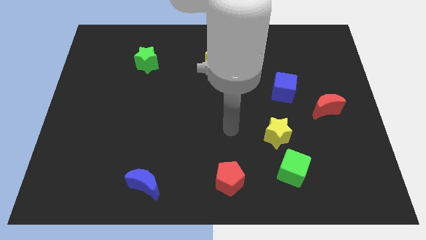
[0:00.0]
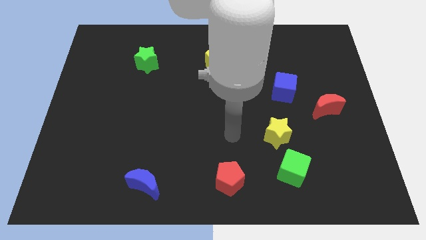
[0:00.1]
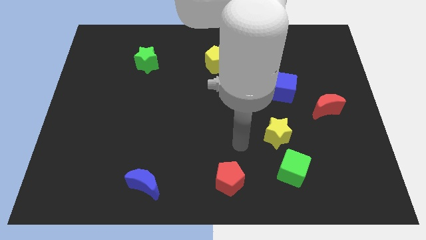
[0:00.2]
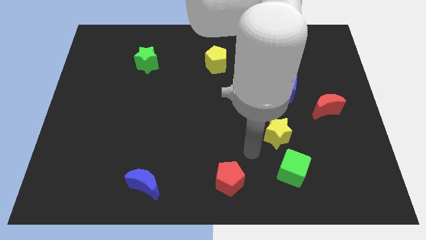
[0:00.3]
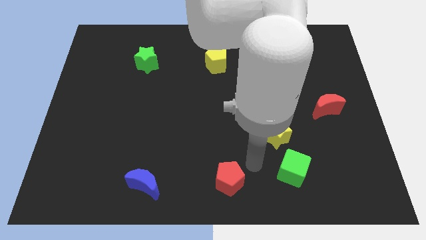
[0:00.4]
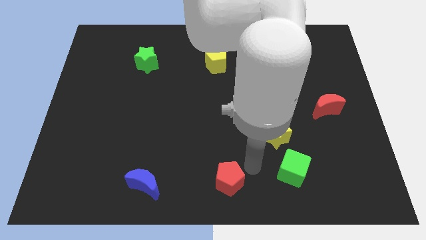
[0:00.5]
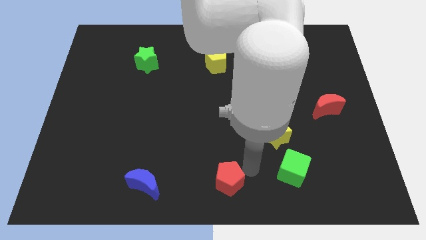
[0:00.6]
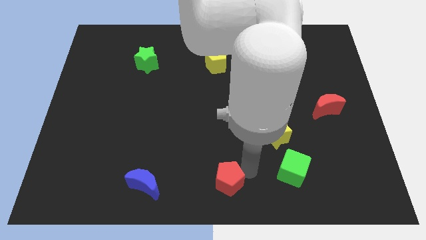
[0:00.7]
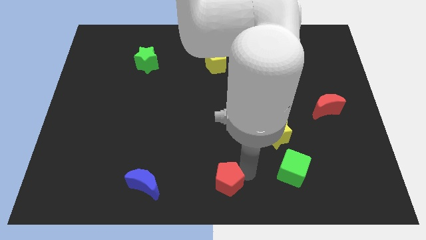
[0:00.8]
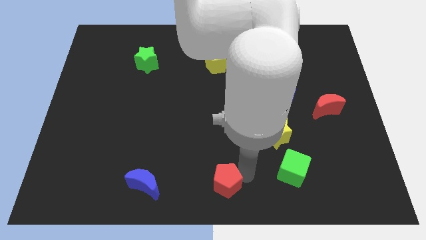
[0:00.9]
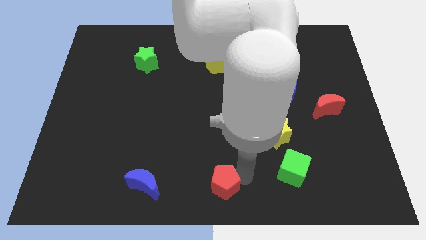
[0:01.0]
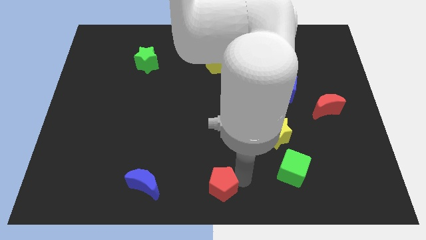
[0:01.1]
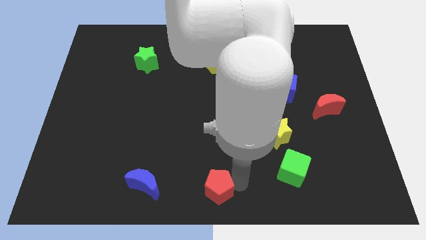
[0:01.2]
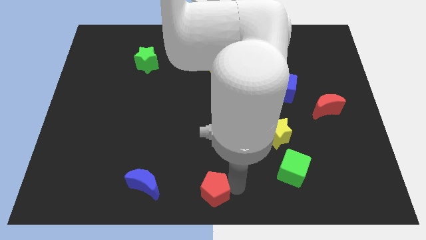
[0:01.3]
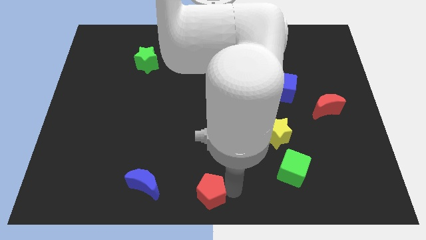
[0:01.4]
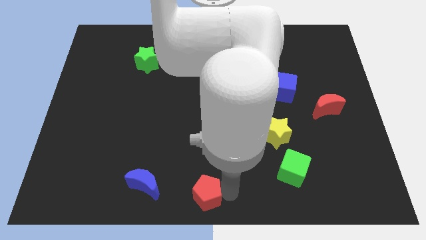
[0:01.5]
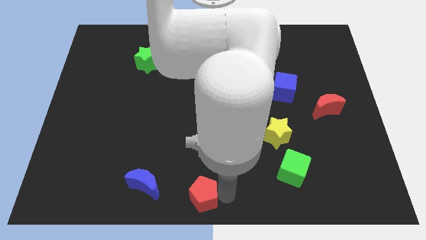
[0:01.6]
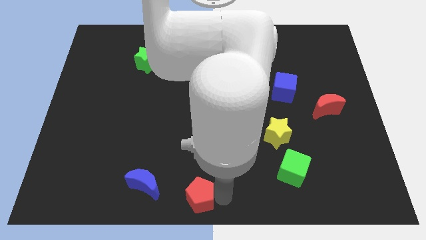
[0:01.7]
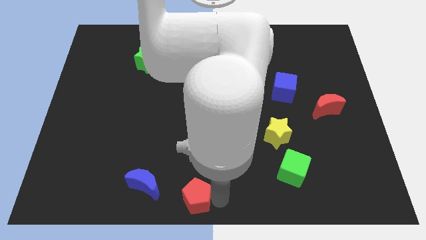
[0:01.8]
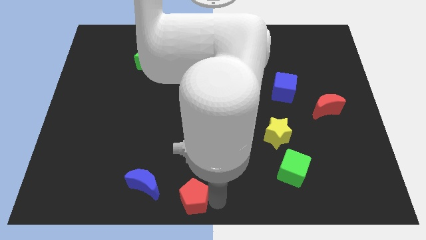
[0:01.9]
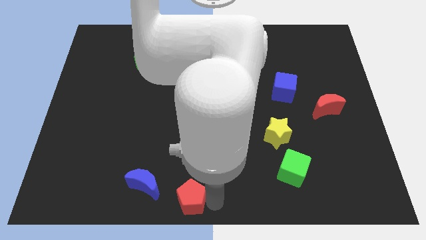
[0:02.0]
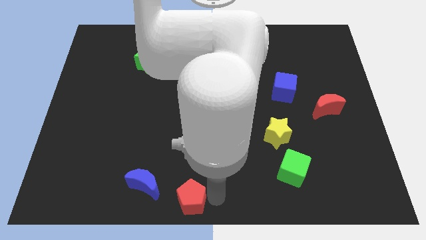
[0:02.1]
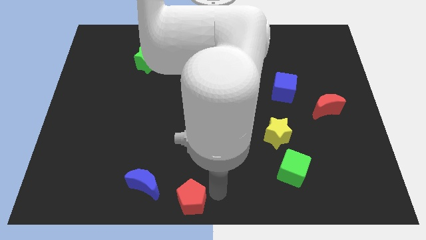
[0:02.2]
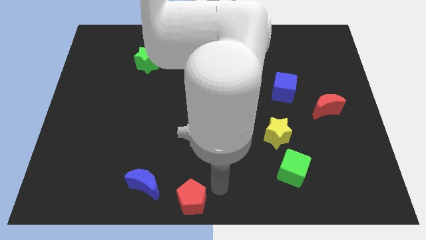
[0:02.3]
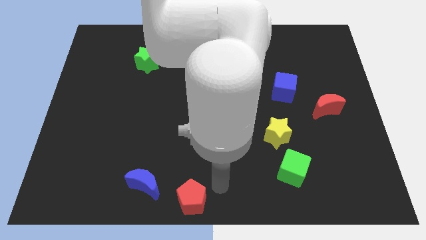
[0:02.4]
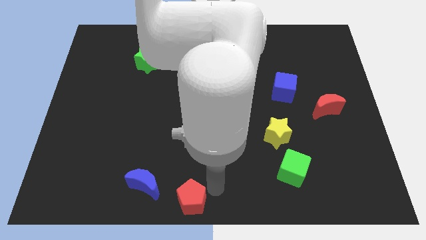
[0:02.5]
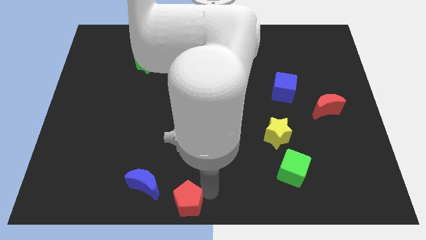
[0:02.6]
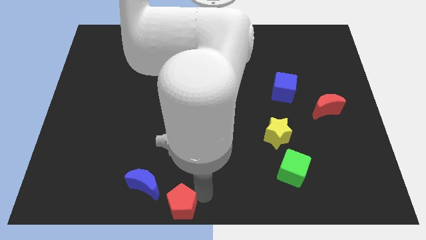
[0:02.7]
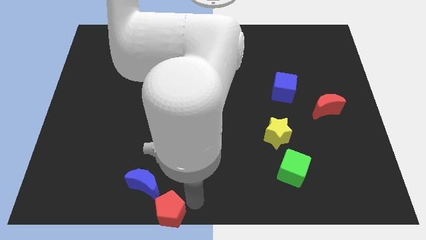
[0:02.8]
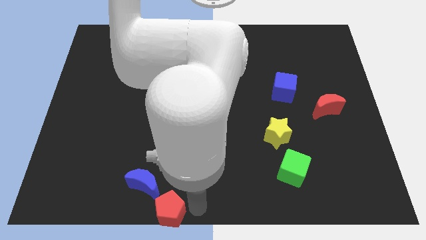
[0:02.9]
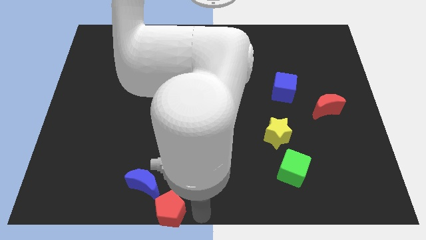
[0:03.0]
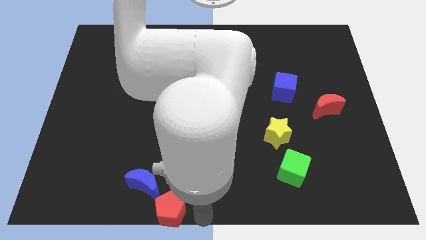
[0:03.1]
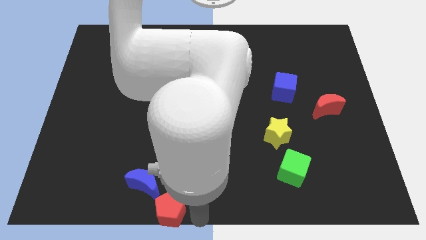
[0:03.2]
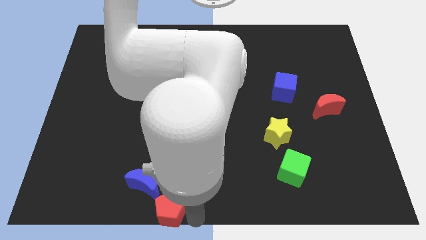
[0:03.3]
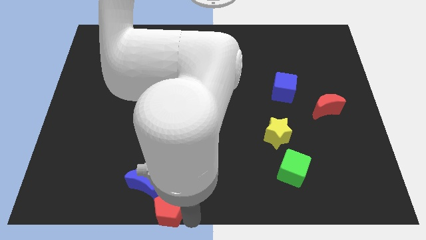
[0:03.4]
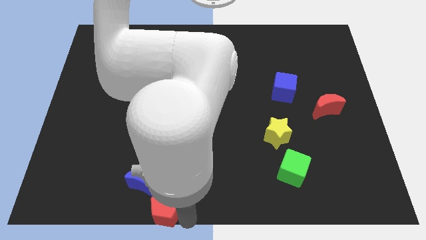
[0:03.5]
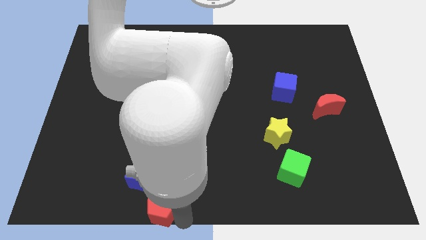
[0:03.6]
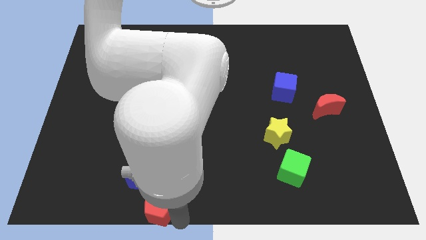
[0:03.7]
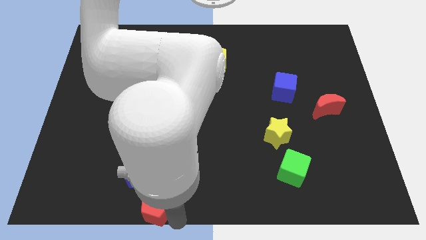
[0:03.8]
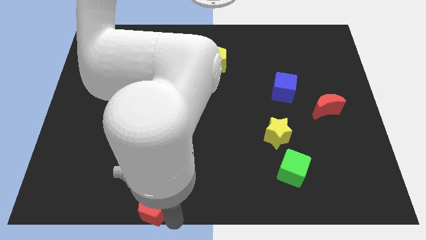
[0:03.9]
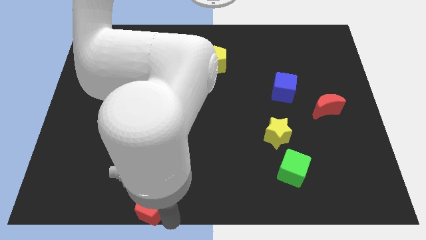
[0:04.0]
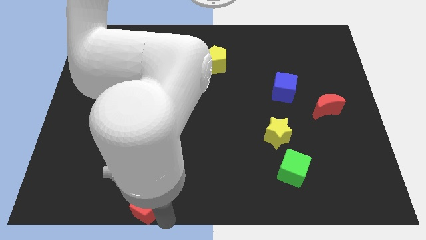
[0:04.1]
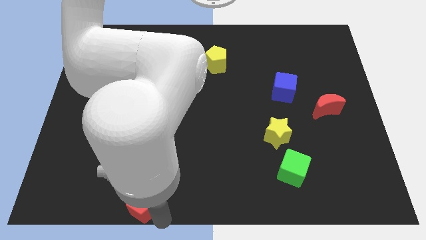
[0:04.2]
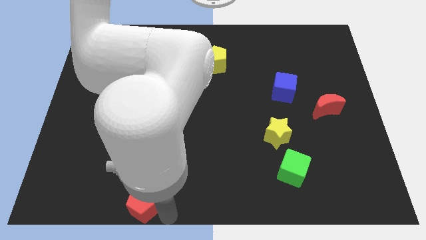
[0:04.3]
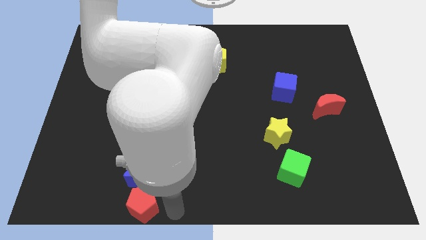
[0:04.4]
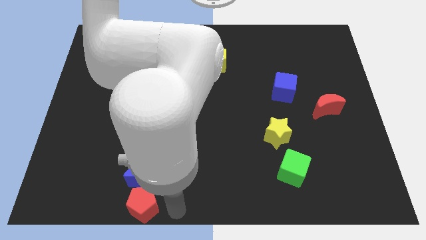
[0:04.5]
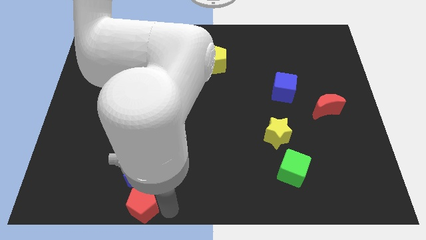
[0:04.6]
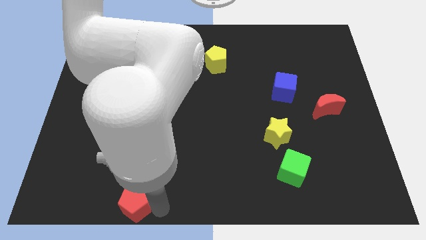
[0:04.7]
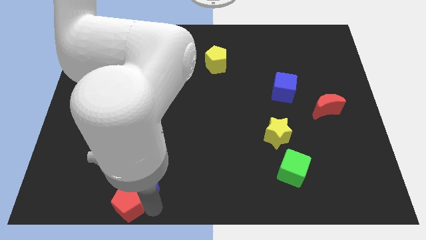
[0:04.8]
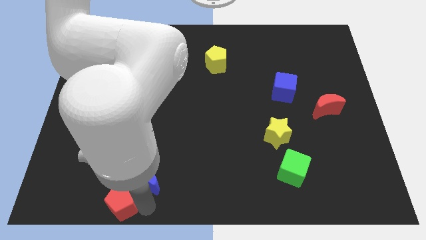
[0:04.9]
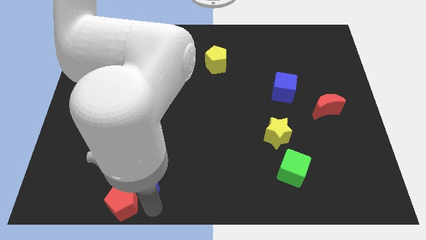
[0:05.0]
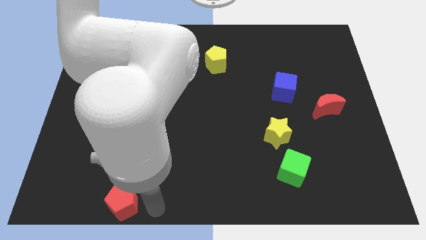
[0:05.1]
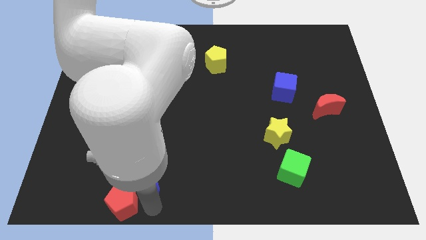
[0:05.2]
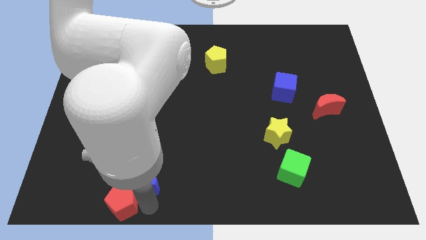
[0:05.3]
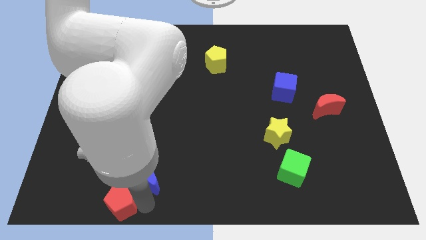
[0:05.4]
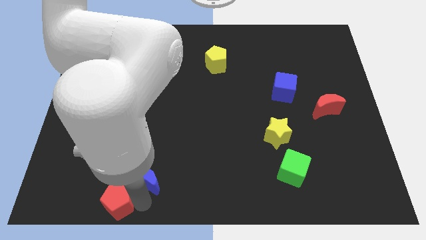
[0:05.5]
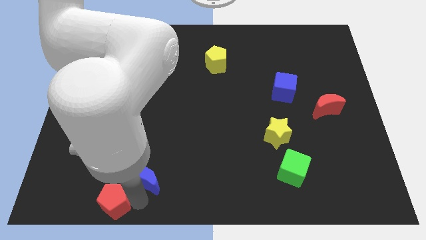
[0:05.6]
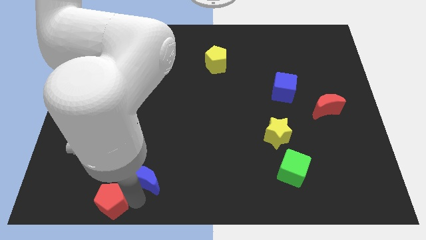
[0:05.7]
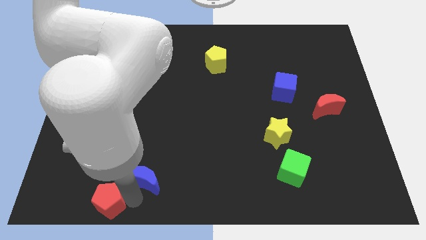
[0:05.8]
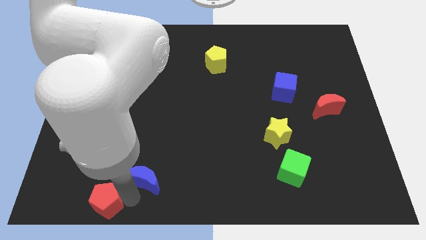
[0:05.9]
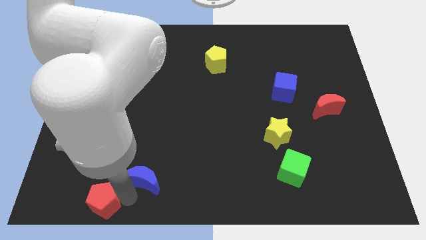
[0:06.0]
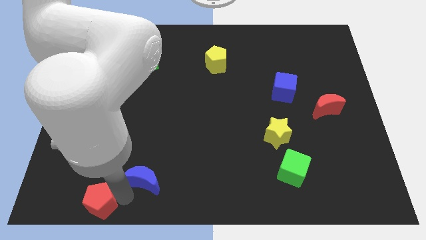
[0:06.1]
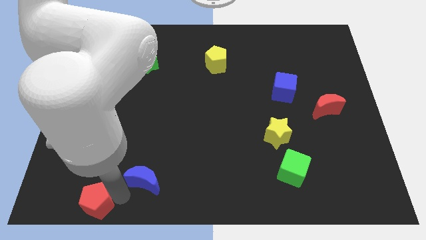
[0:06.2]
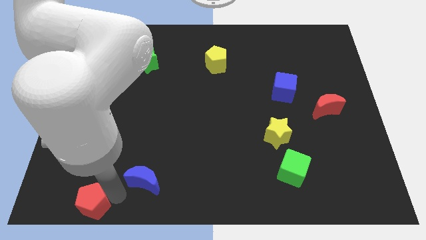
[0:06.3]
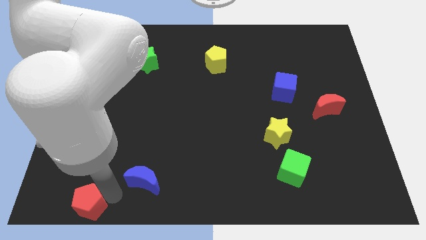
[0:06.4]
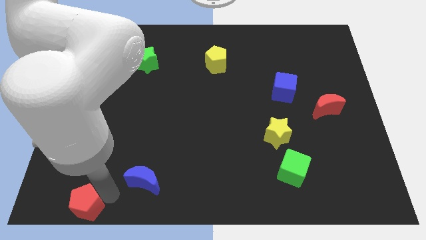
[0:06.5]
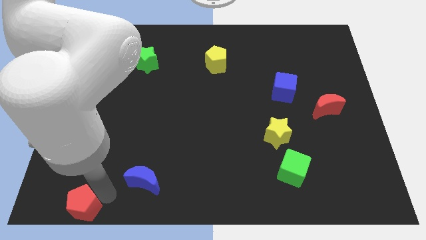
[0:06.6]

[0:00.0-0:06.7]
slide the red pentagon to the bottom left corner
